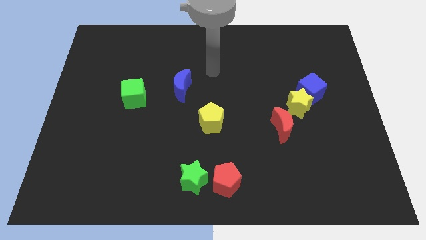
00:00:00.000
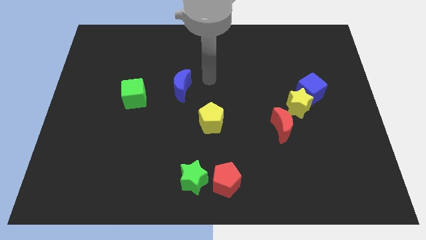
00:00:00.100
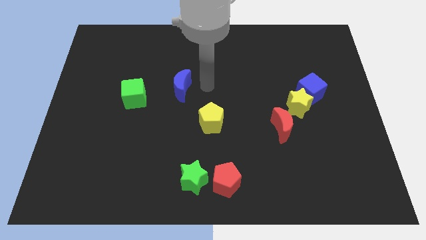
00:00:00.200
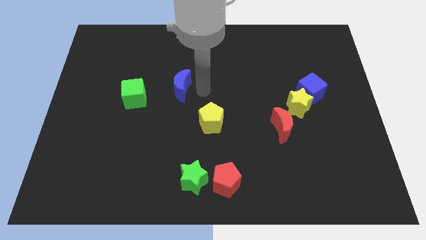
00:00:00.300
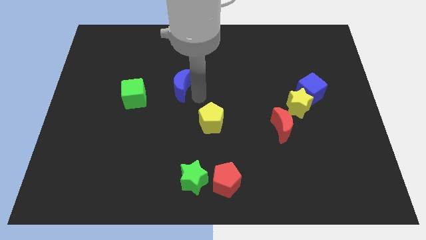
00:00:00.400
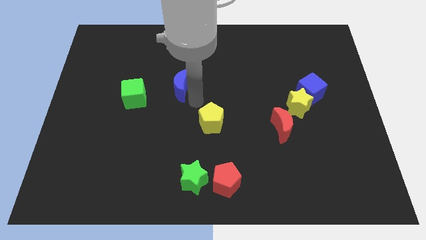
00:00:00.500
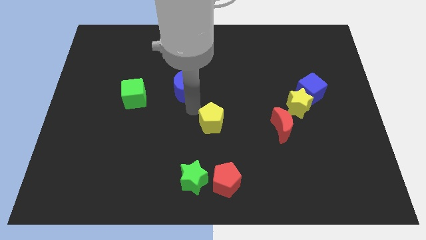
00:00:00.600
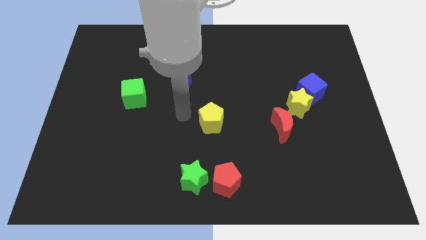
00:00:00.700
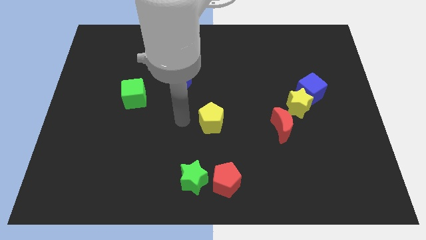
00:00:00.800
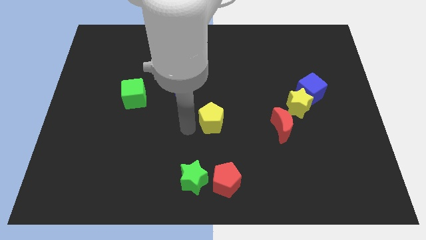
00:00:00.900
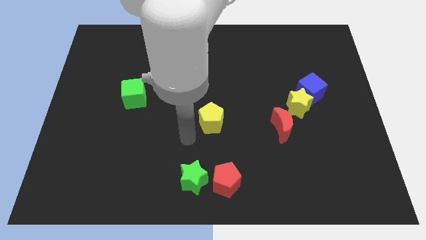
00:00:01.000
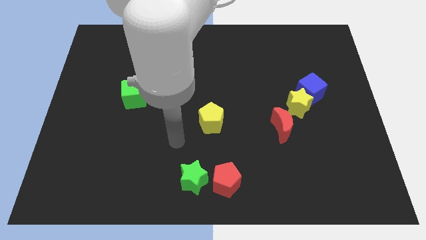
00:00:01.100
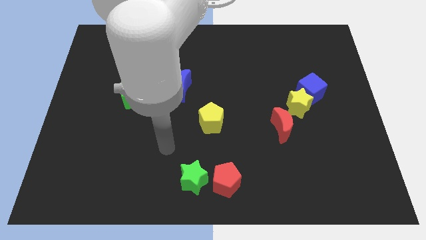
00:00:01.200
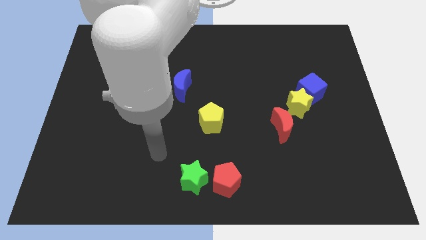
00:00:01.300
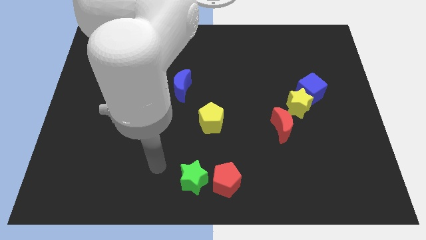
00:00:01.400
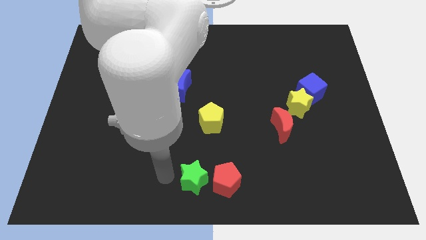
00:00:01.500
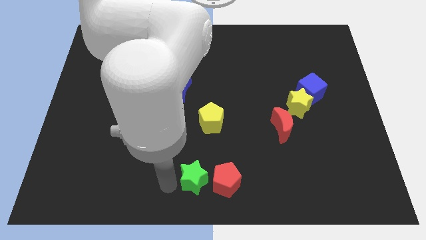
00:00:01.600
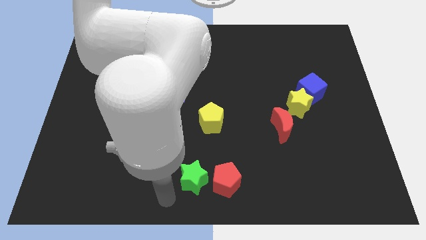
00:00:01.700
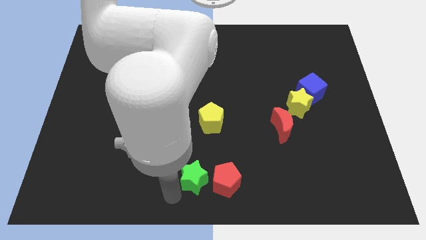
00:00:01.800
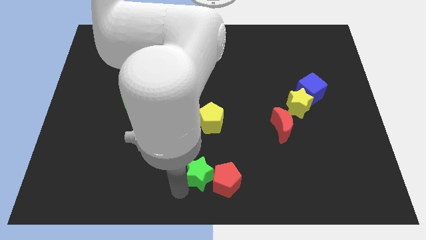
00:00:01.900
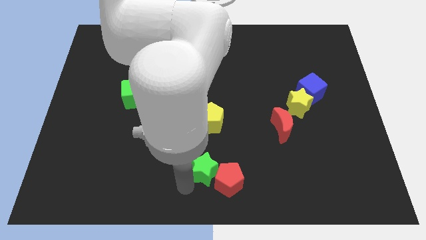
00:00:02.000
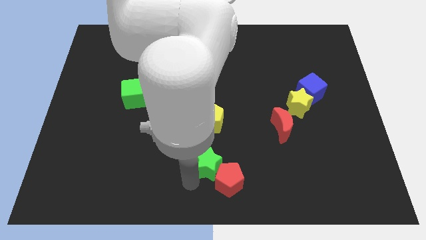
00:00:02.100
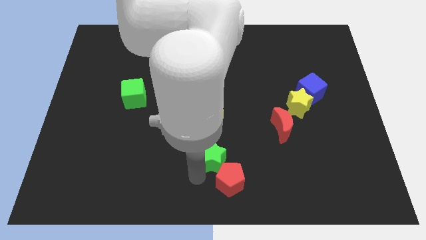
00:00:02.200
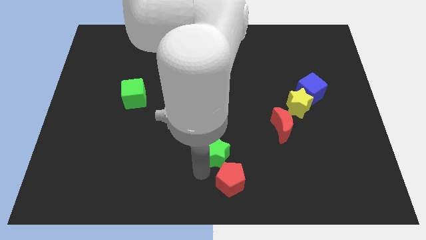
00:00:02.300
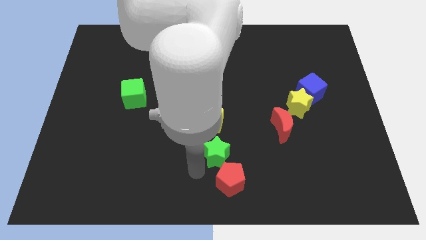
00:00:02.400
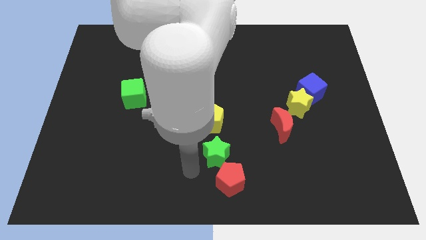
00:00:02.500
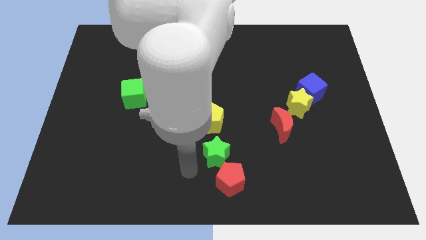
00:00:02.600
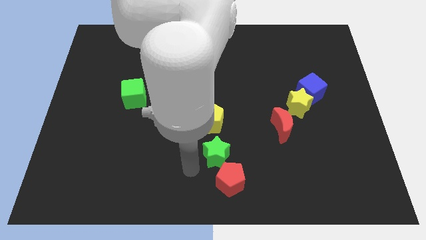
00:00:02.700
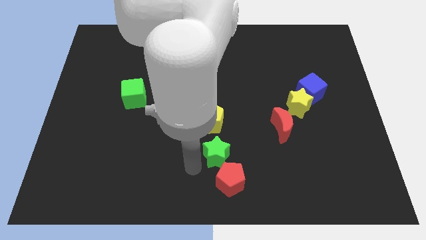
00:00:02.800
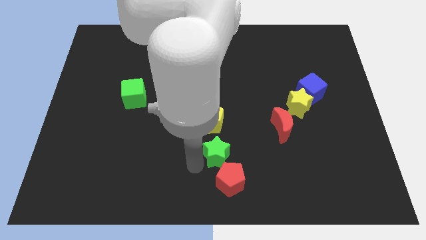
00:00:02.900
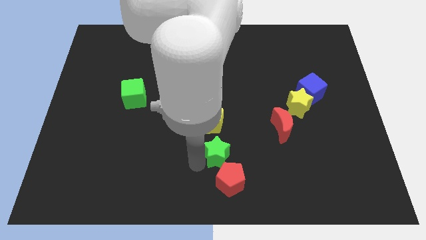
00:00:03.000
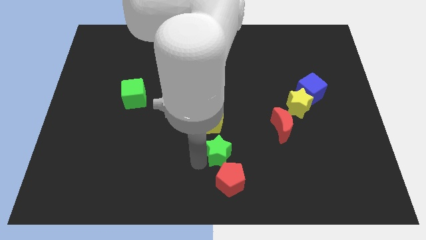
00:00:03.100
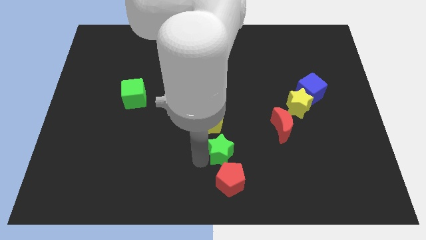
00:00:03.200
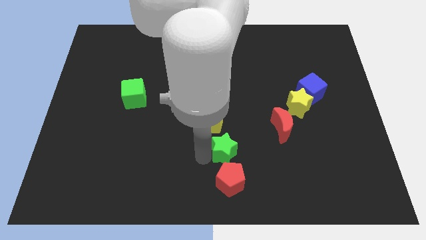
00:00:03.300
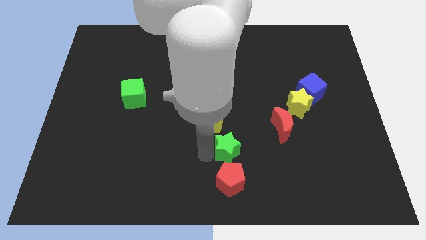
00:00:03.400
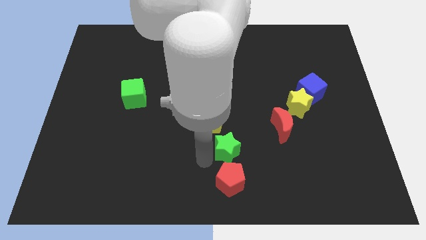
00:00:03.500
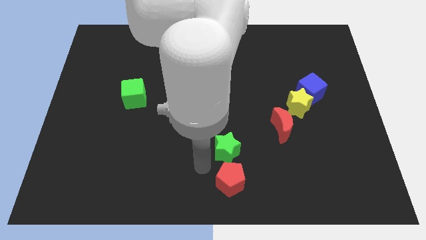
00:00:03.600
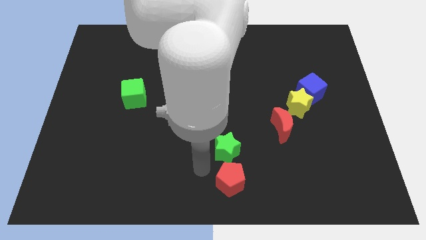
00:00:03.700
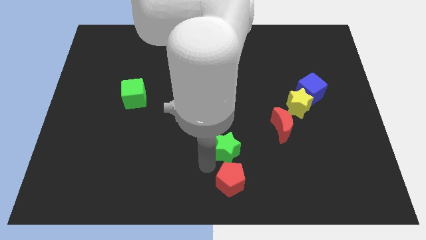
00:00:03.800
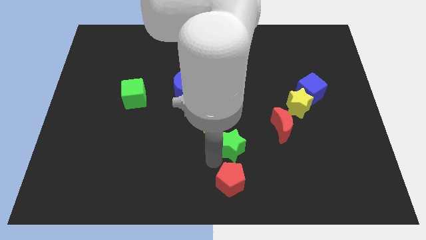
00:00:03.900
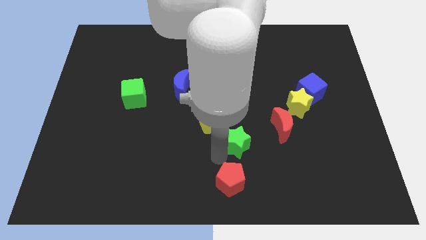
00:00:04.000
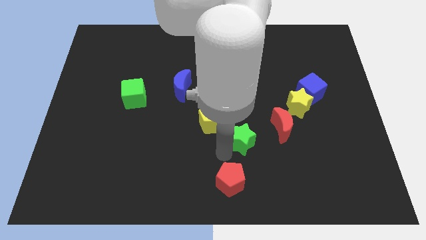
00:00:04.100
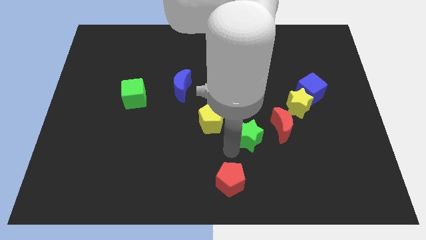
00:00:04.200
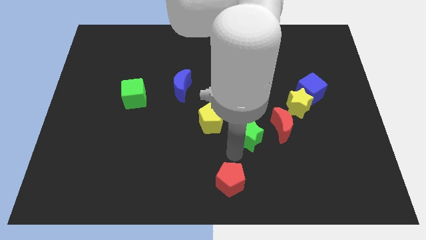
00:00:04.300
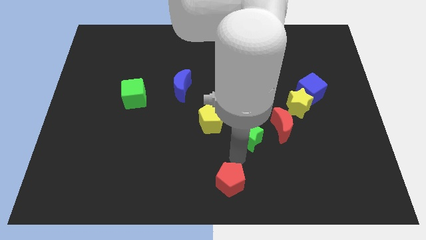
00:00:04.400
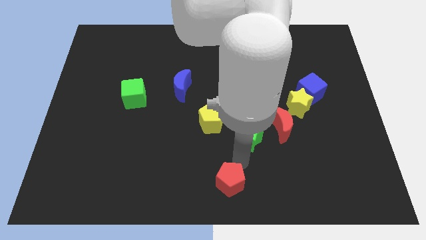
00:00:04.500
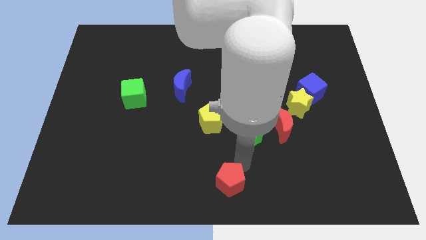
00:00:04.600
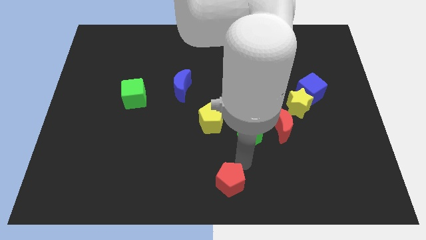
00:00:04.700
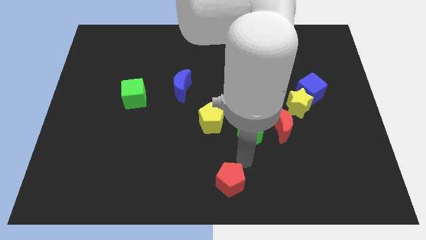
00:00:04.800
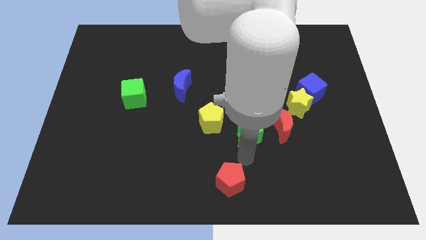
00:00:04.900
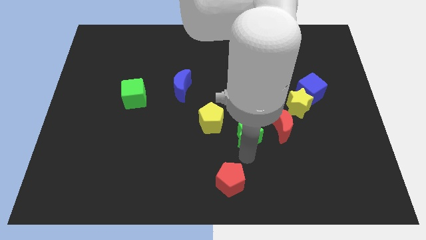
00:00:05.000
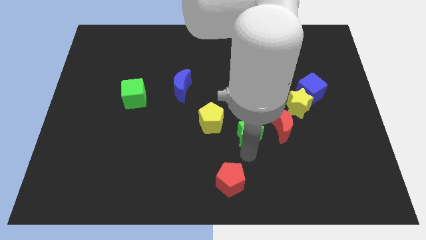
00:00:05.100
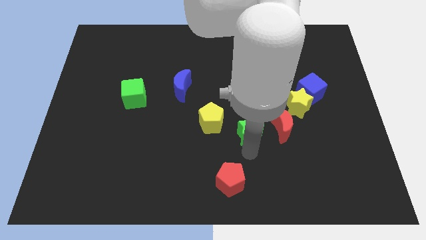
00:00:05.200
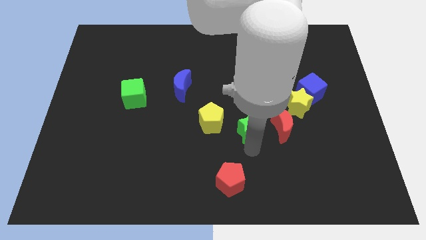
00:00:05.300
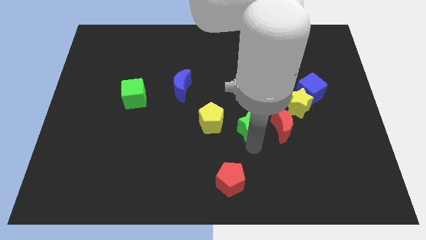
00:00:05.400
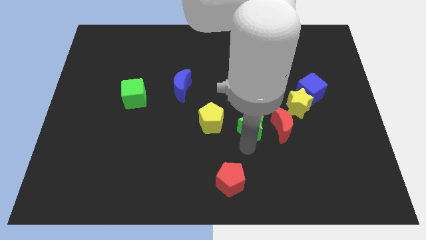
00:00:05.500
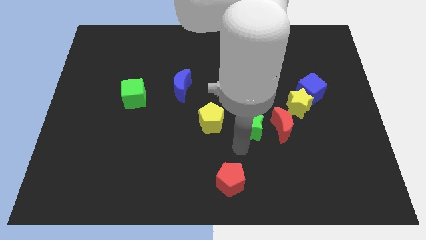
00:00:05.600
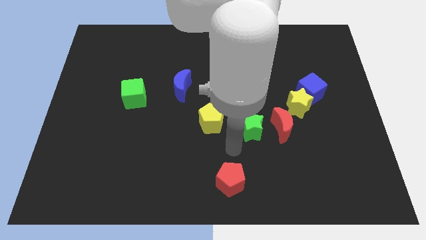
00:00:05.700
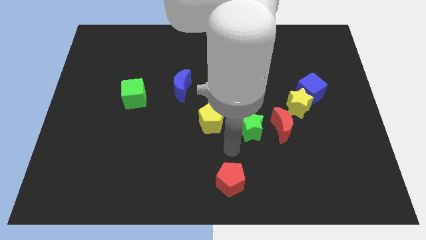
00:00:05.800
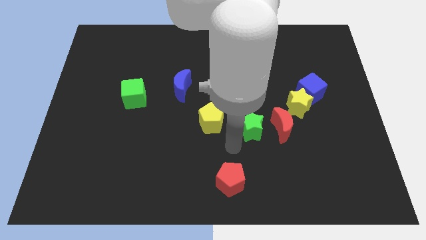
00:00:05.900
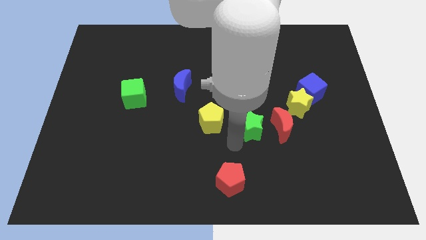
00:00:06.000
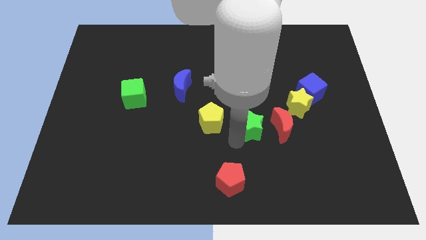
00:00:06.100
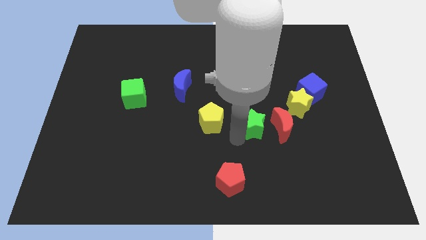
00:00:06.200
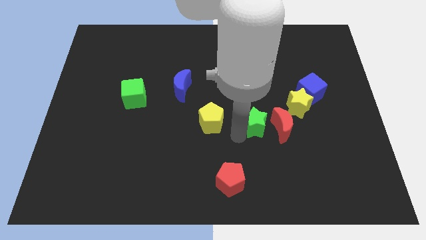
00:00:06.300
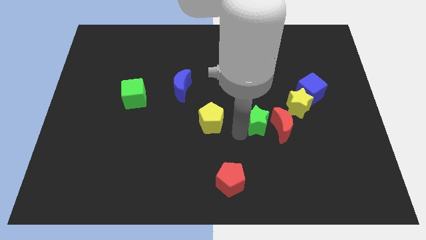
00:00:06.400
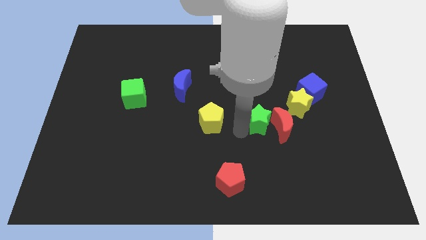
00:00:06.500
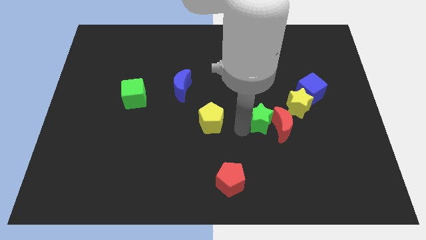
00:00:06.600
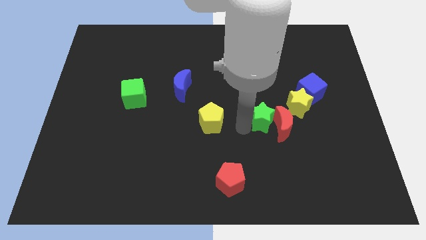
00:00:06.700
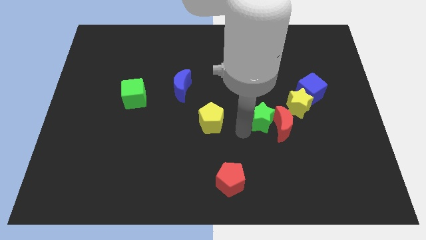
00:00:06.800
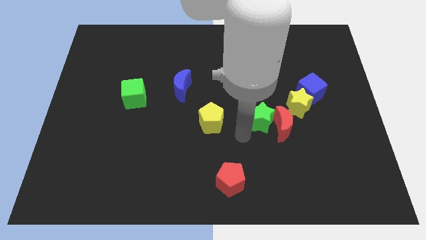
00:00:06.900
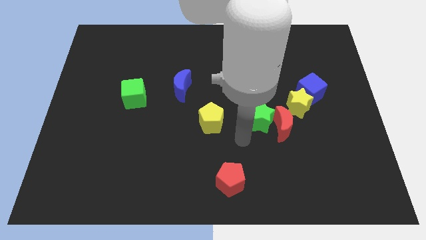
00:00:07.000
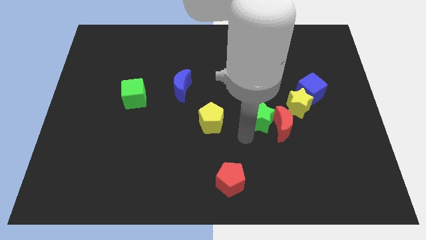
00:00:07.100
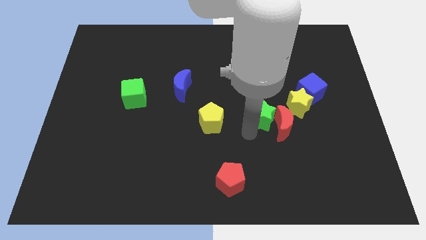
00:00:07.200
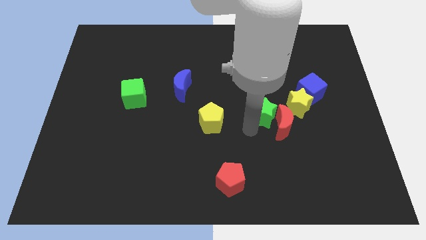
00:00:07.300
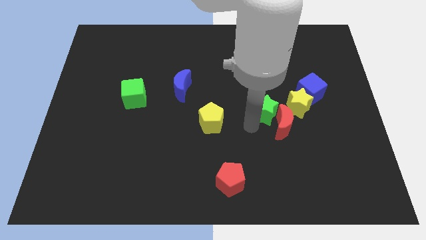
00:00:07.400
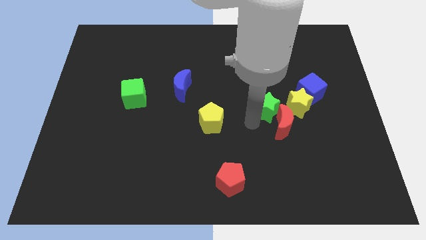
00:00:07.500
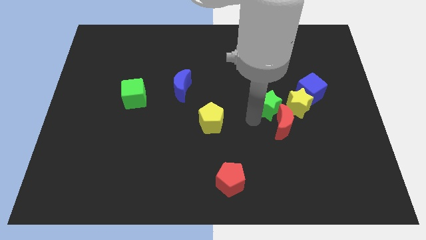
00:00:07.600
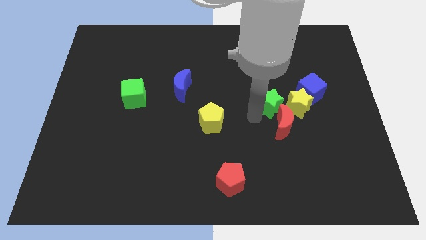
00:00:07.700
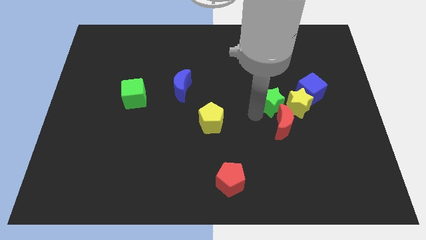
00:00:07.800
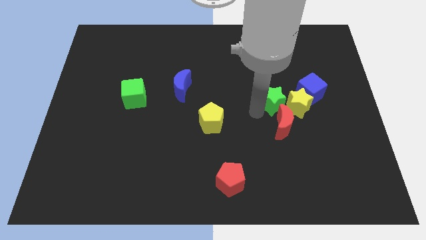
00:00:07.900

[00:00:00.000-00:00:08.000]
put the green star next to the yellow star
